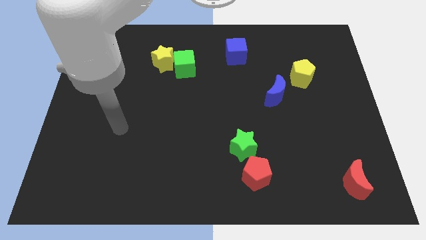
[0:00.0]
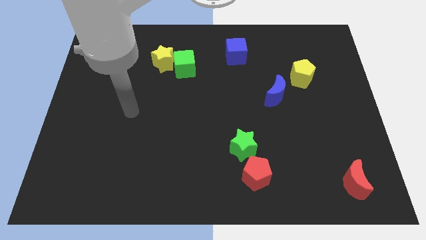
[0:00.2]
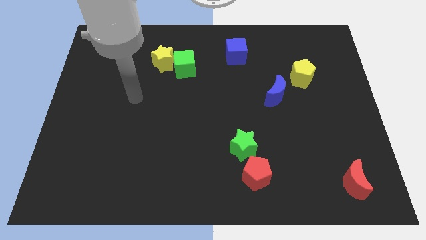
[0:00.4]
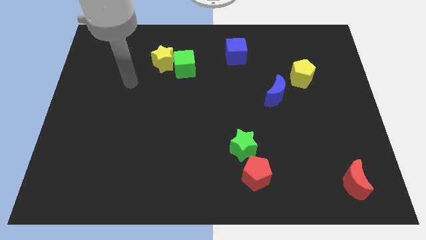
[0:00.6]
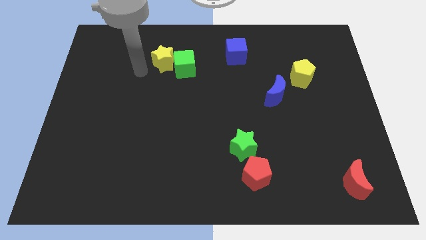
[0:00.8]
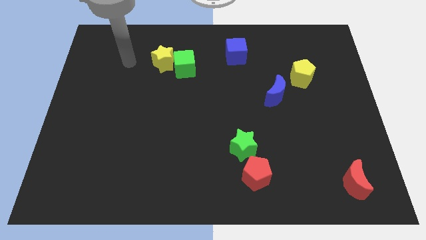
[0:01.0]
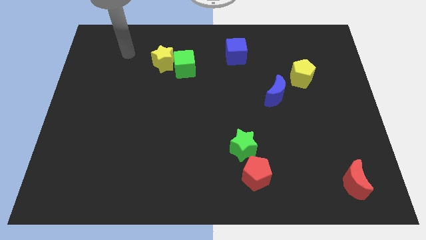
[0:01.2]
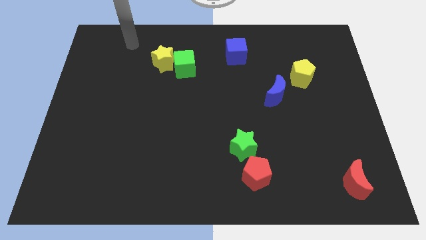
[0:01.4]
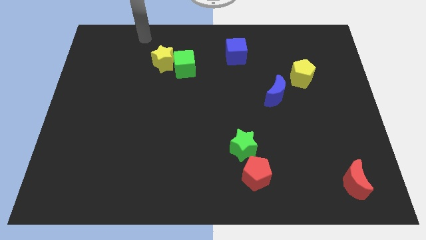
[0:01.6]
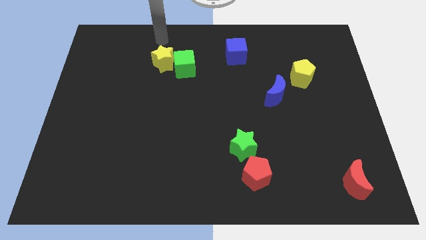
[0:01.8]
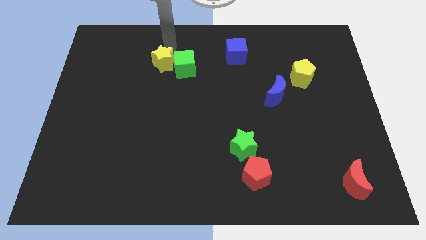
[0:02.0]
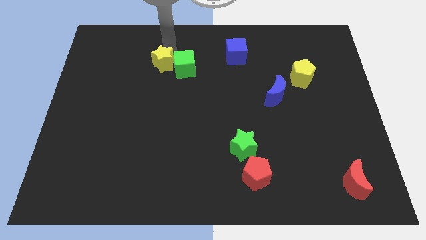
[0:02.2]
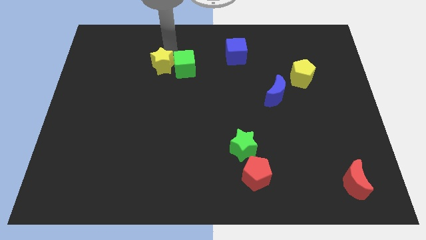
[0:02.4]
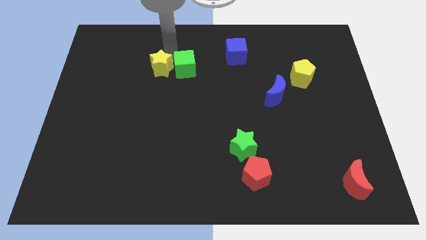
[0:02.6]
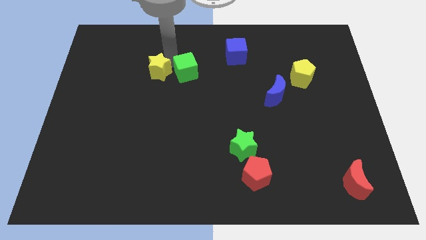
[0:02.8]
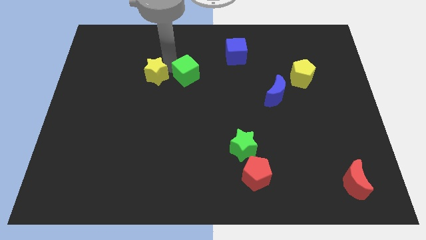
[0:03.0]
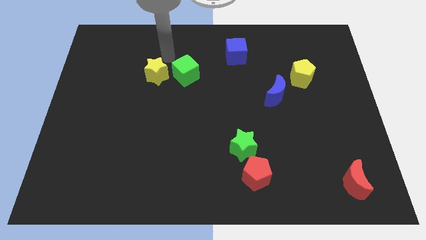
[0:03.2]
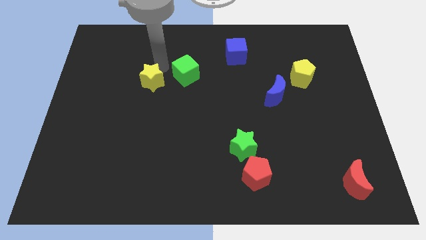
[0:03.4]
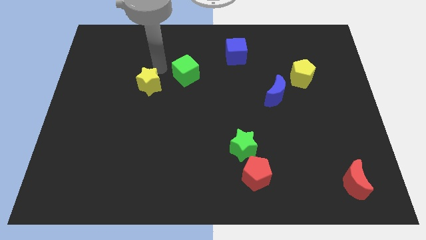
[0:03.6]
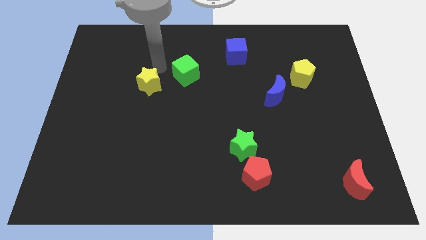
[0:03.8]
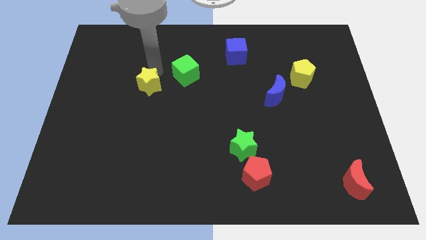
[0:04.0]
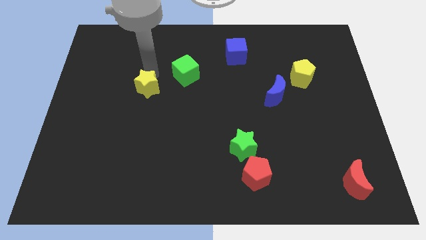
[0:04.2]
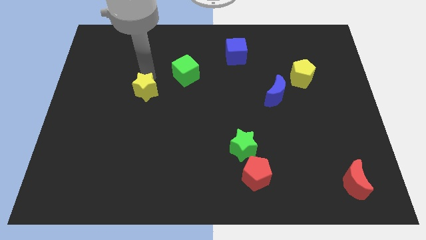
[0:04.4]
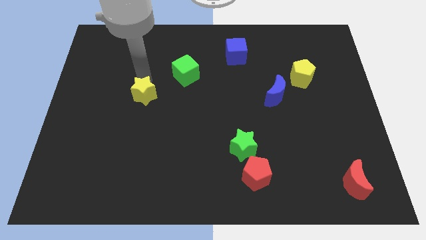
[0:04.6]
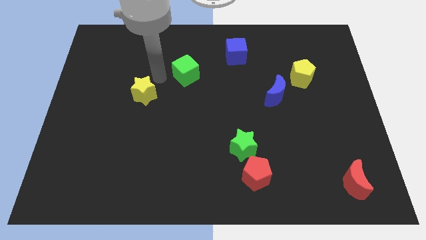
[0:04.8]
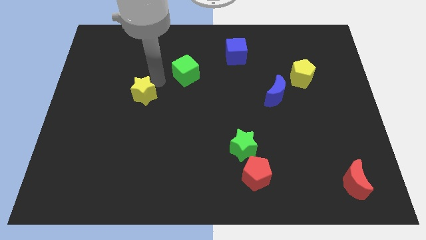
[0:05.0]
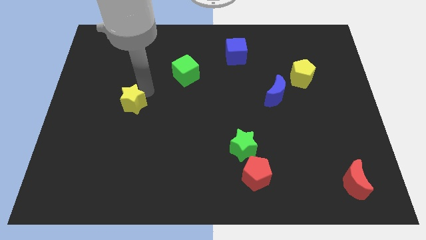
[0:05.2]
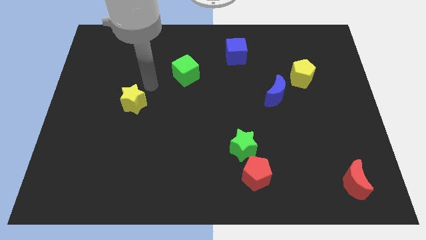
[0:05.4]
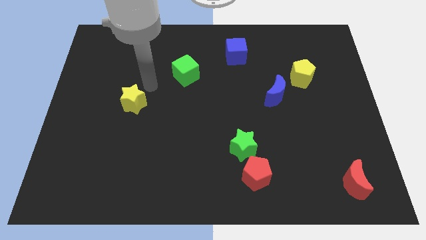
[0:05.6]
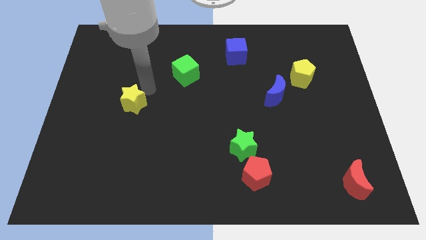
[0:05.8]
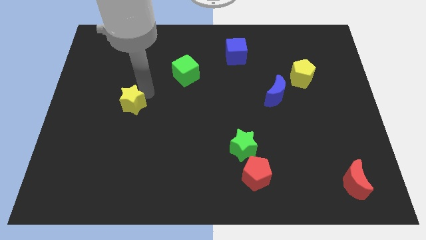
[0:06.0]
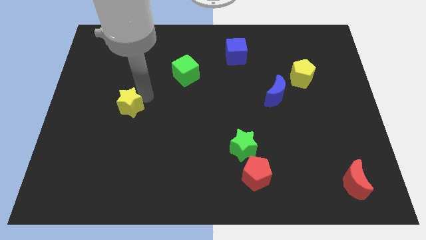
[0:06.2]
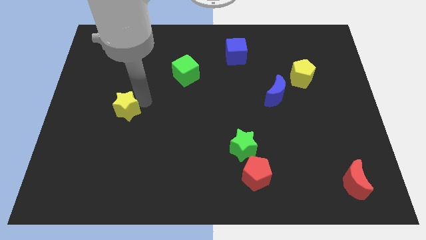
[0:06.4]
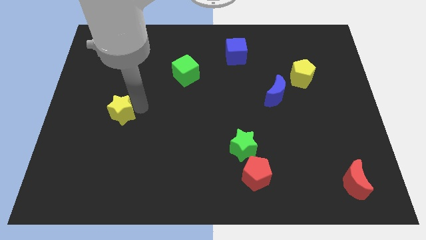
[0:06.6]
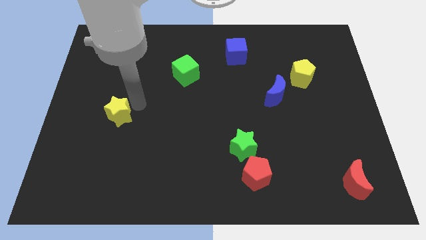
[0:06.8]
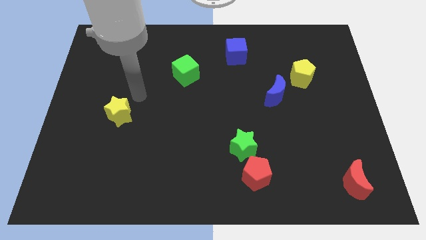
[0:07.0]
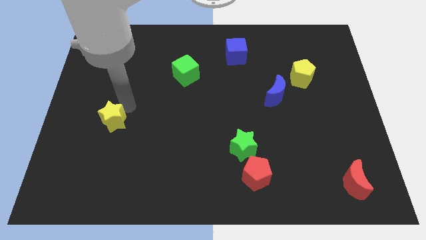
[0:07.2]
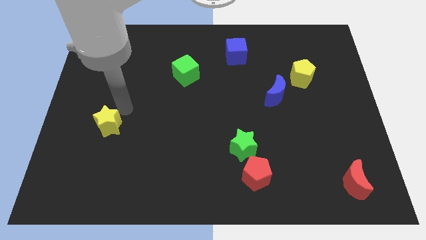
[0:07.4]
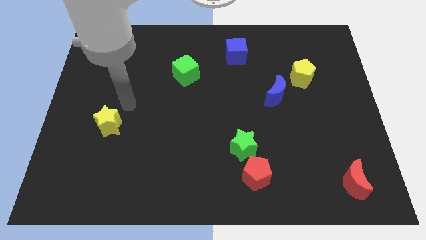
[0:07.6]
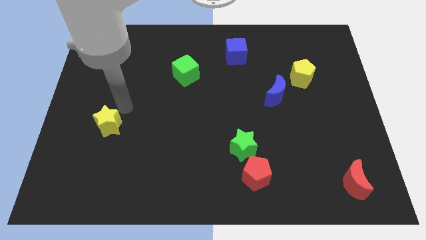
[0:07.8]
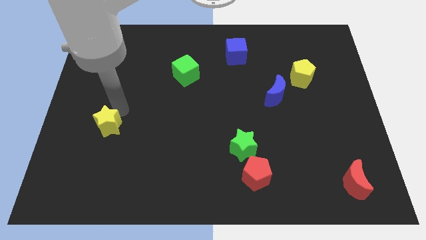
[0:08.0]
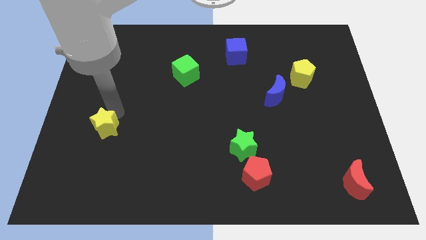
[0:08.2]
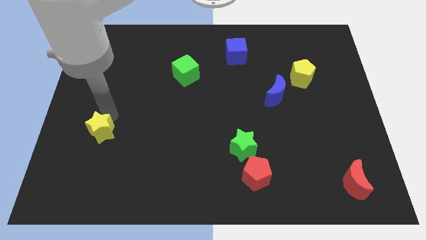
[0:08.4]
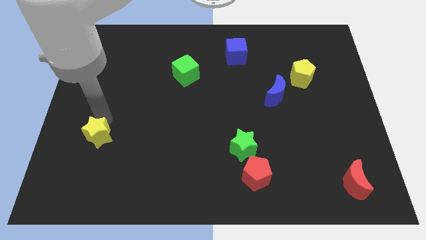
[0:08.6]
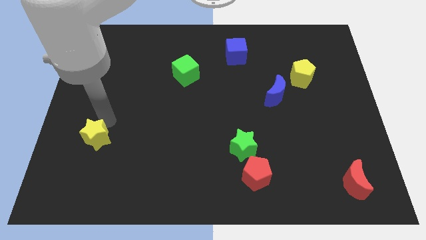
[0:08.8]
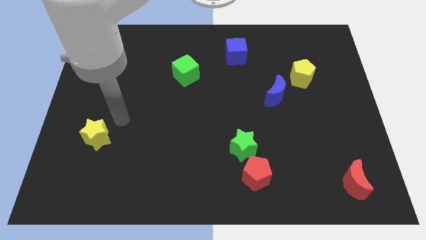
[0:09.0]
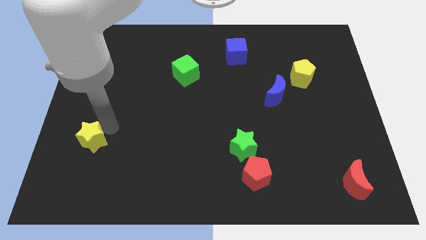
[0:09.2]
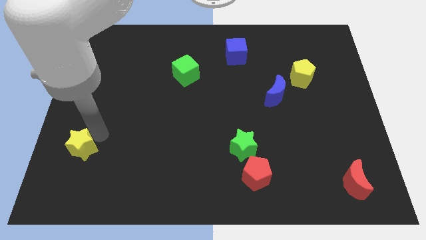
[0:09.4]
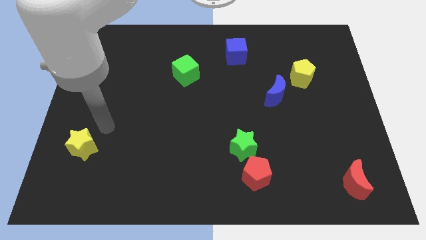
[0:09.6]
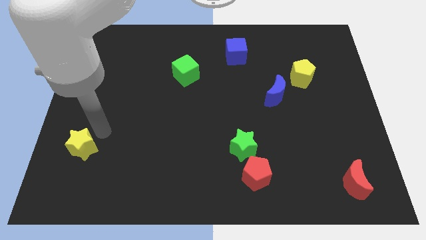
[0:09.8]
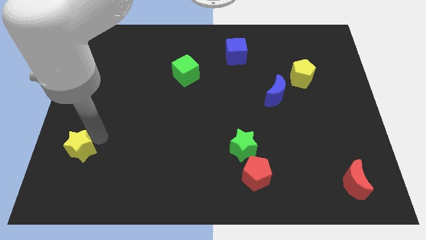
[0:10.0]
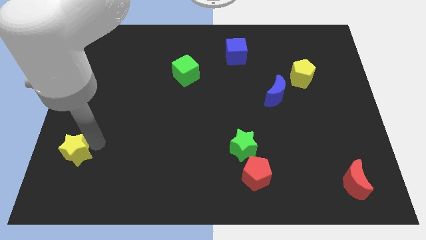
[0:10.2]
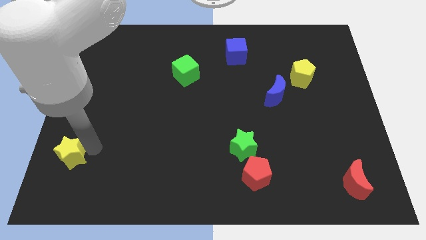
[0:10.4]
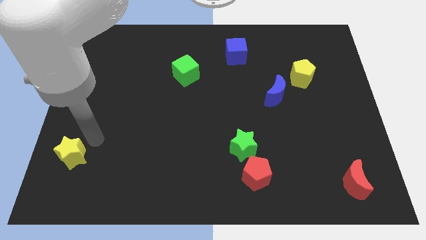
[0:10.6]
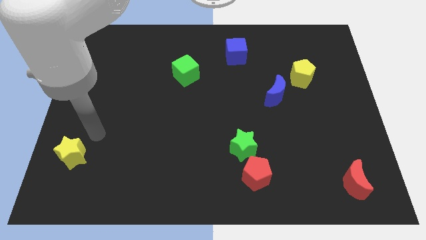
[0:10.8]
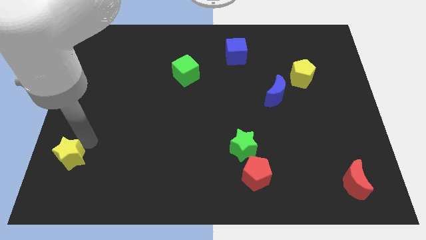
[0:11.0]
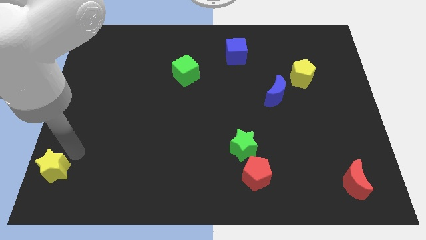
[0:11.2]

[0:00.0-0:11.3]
move the yellow star to the bottom left corner

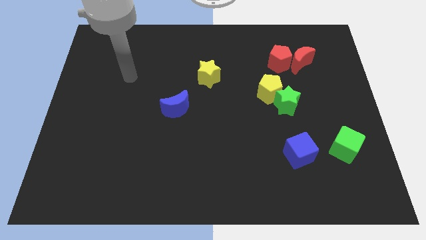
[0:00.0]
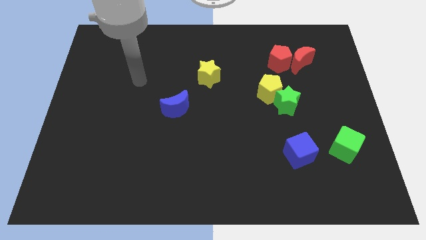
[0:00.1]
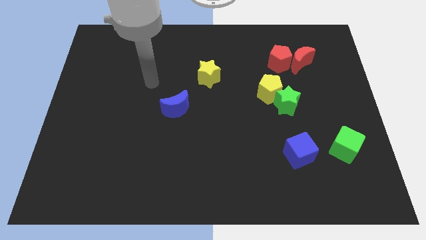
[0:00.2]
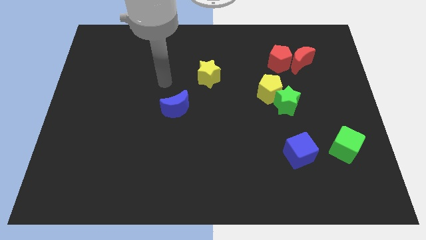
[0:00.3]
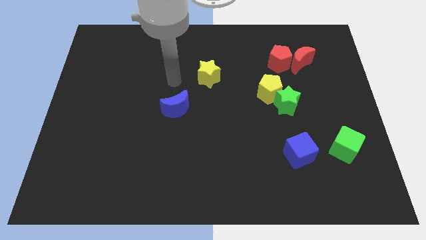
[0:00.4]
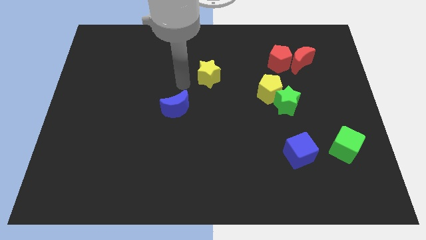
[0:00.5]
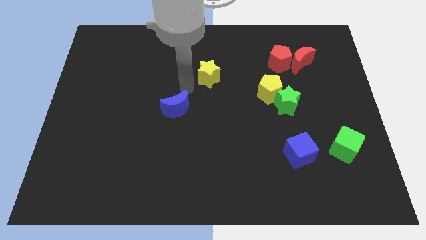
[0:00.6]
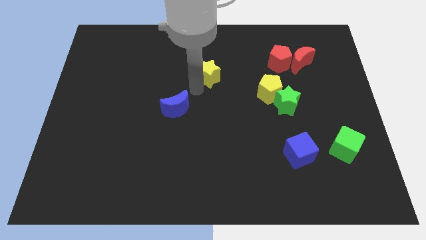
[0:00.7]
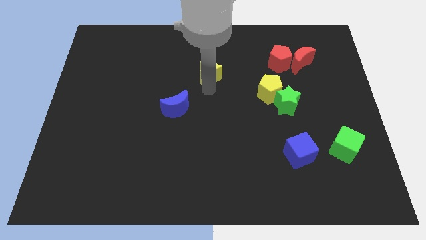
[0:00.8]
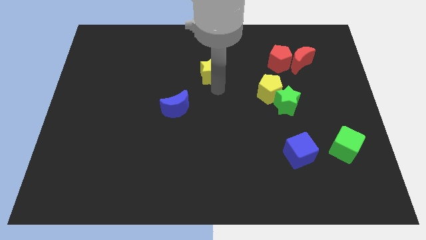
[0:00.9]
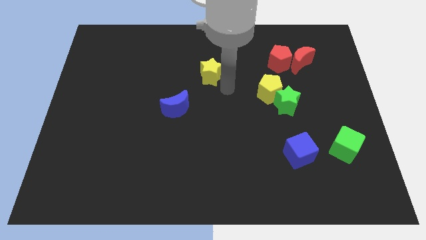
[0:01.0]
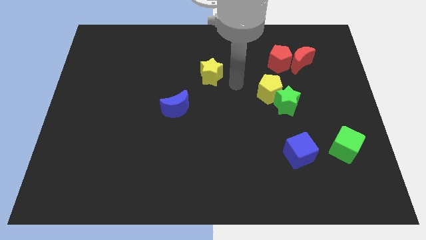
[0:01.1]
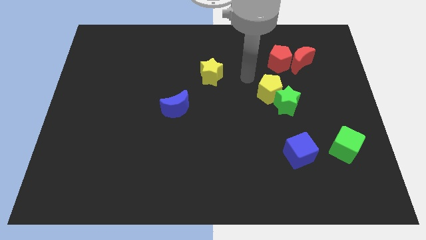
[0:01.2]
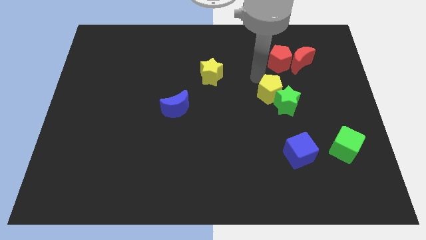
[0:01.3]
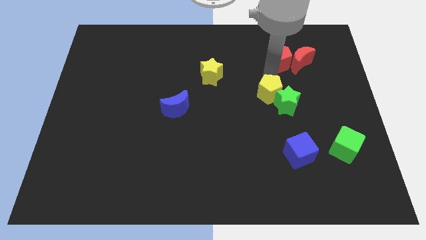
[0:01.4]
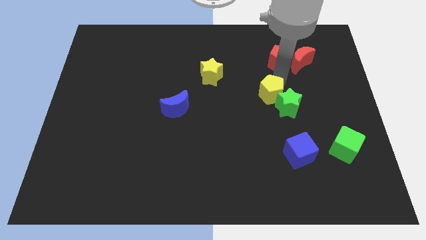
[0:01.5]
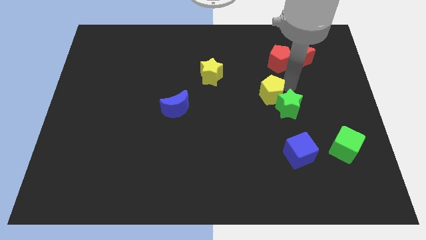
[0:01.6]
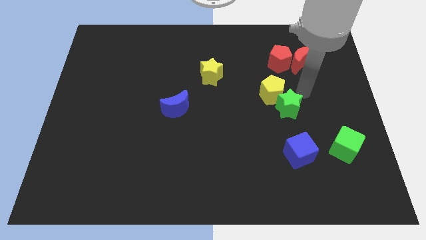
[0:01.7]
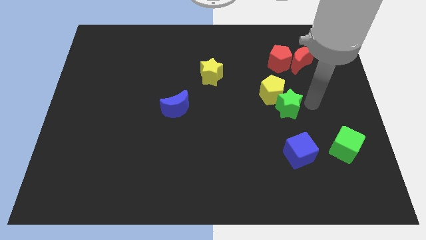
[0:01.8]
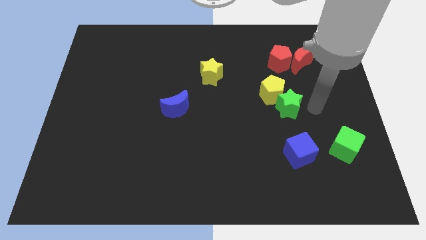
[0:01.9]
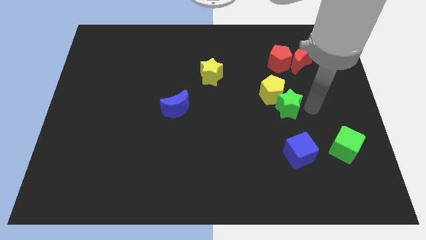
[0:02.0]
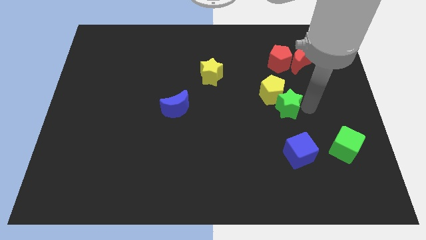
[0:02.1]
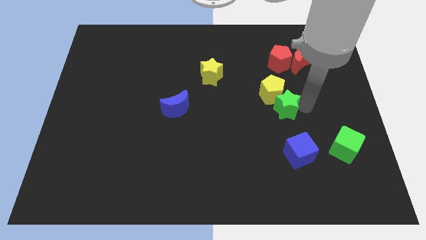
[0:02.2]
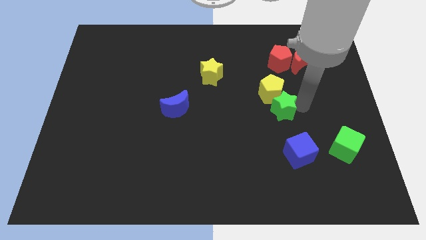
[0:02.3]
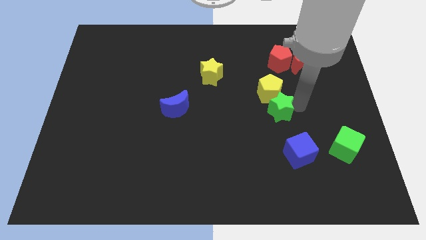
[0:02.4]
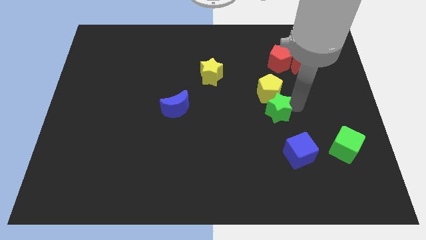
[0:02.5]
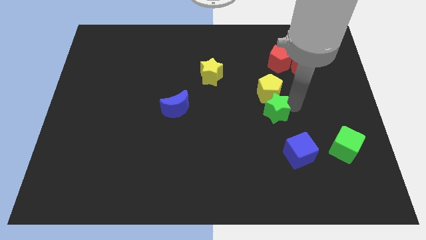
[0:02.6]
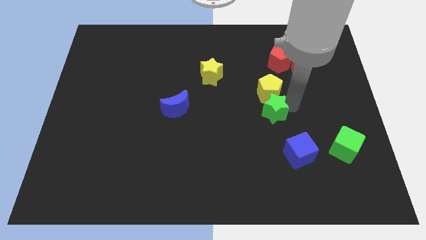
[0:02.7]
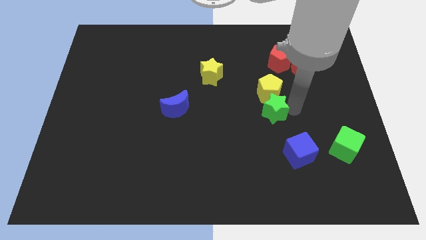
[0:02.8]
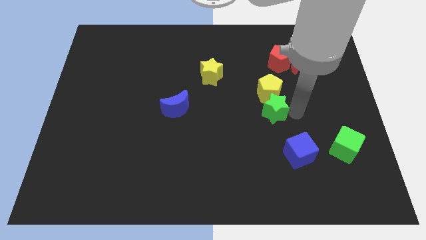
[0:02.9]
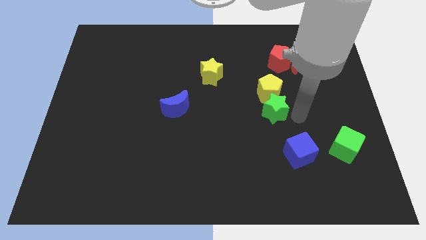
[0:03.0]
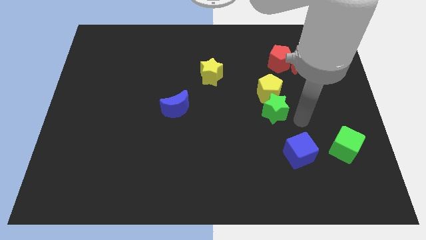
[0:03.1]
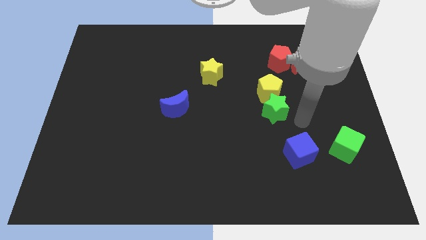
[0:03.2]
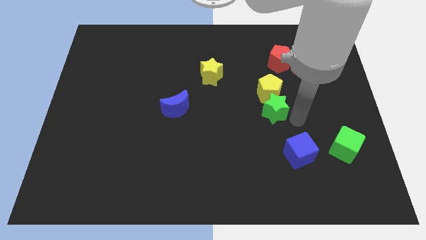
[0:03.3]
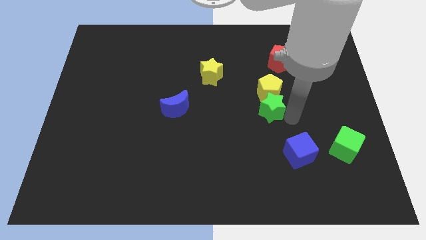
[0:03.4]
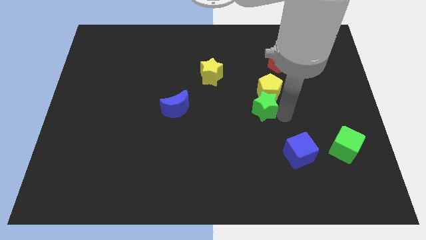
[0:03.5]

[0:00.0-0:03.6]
move the green star to the middle of the board
